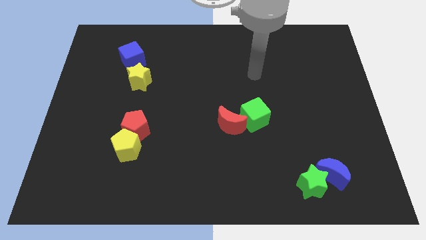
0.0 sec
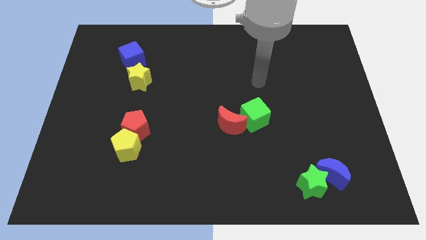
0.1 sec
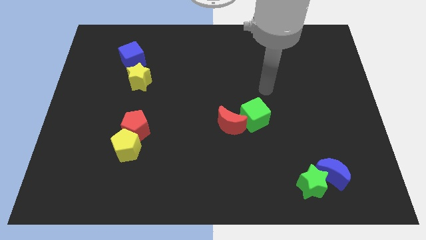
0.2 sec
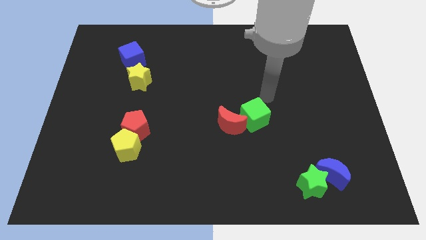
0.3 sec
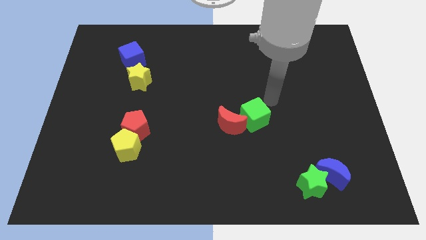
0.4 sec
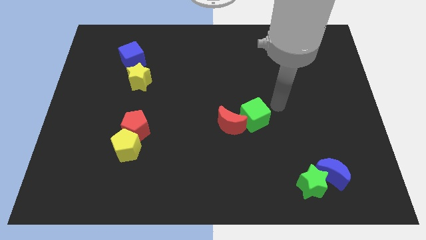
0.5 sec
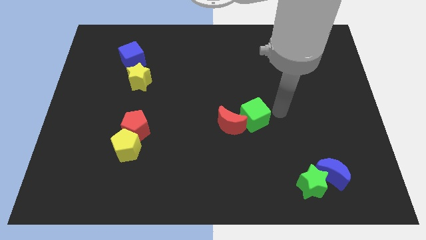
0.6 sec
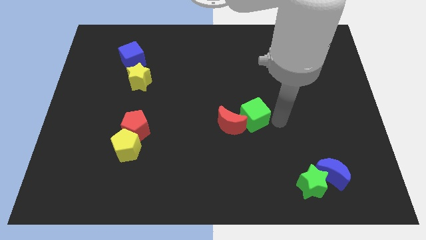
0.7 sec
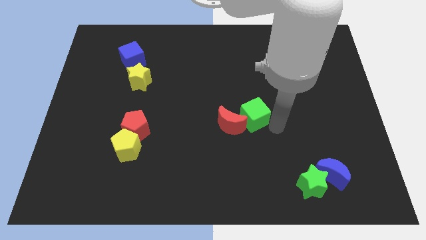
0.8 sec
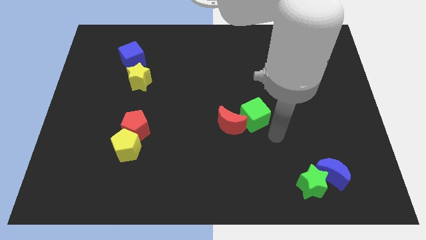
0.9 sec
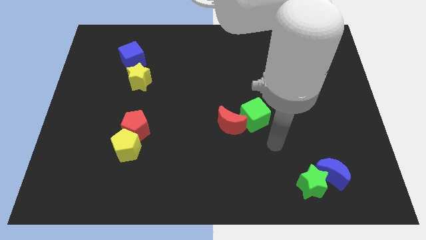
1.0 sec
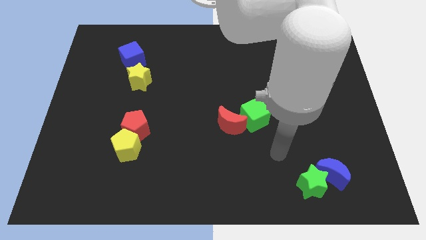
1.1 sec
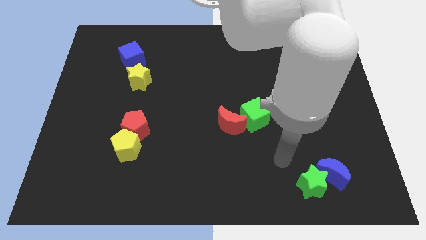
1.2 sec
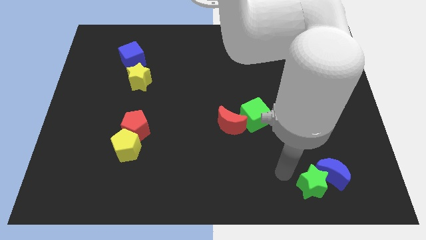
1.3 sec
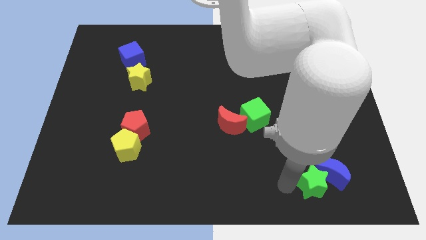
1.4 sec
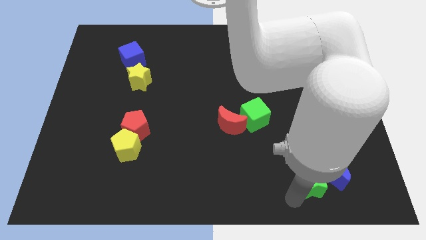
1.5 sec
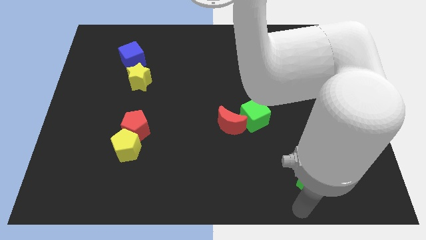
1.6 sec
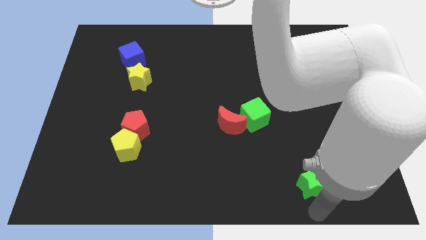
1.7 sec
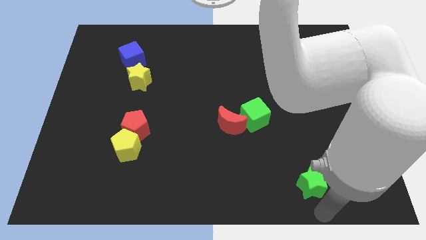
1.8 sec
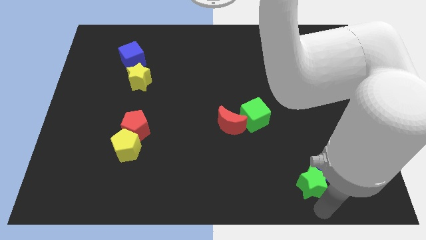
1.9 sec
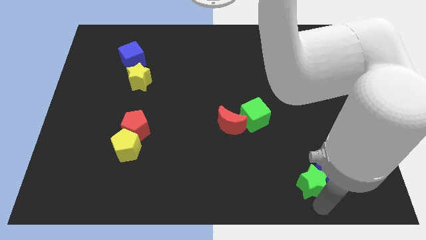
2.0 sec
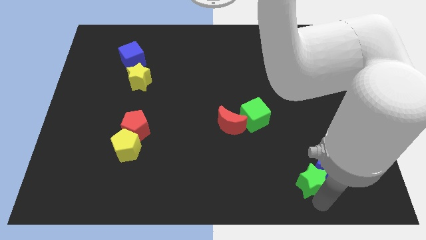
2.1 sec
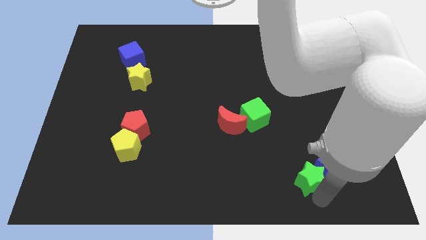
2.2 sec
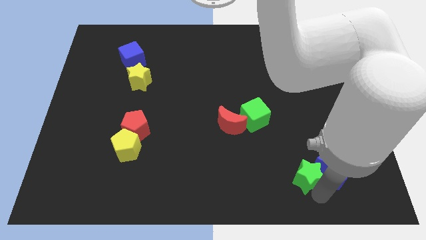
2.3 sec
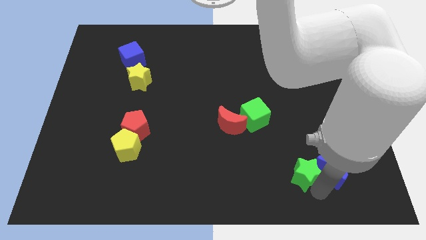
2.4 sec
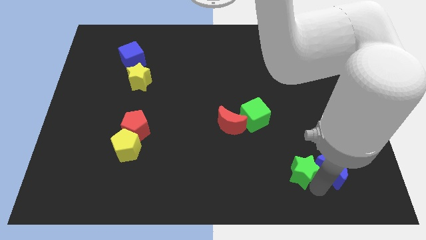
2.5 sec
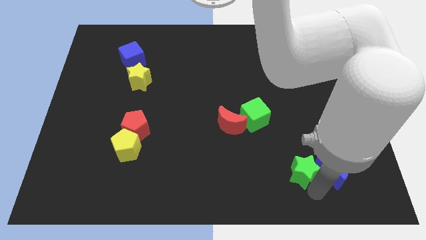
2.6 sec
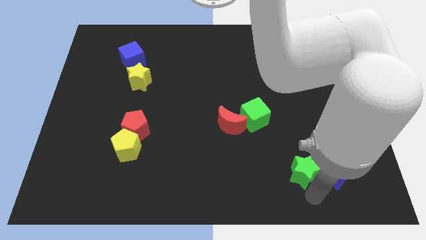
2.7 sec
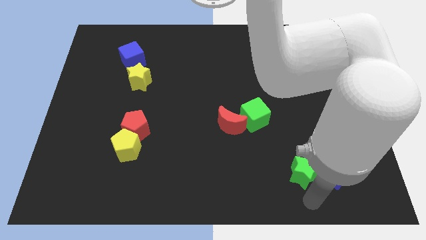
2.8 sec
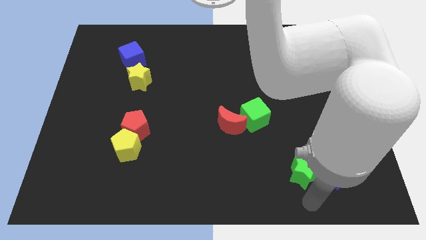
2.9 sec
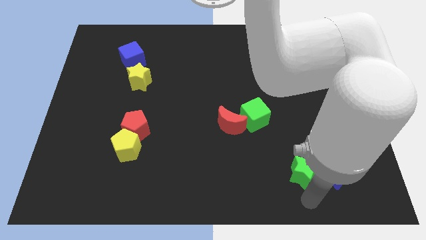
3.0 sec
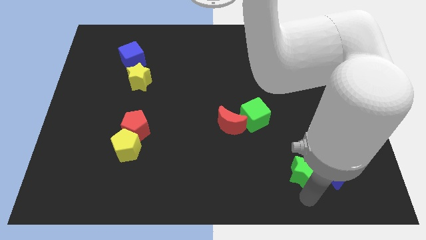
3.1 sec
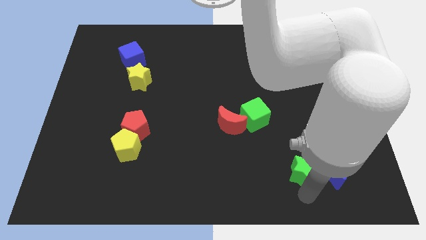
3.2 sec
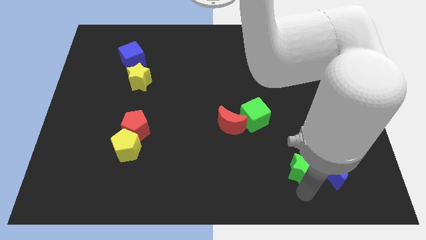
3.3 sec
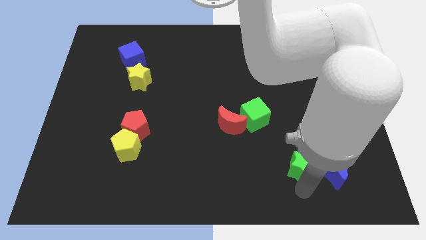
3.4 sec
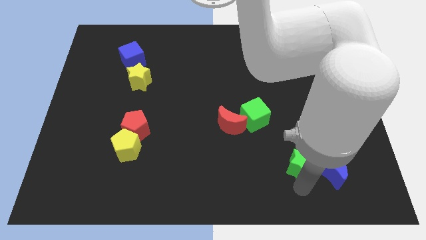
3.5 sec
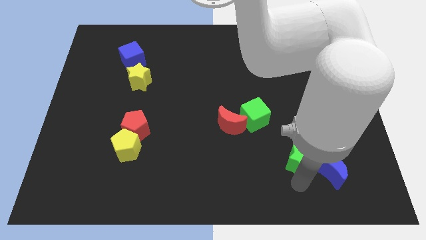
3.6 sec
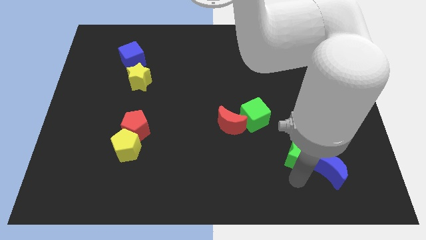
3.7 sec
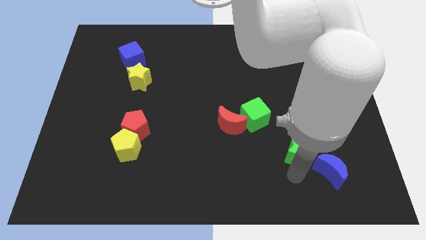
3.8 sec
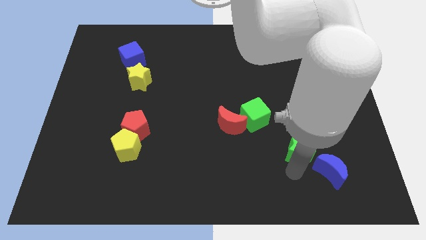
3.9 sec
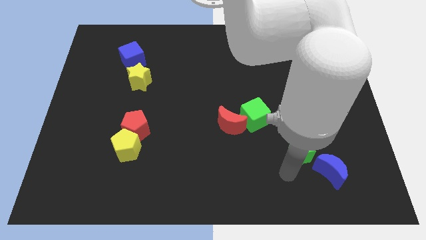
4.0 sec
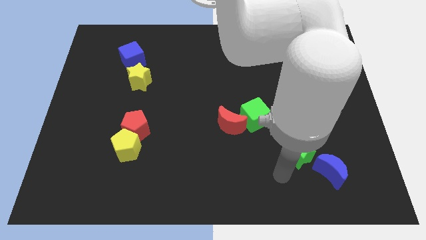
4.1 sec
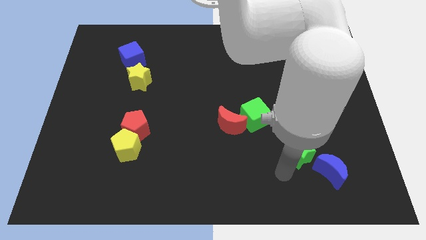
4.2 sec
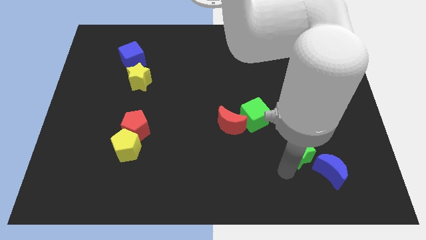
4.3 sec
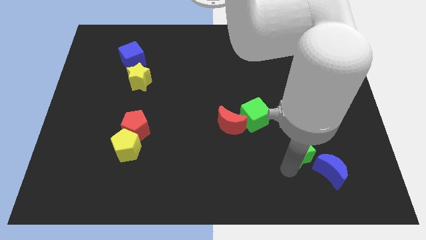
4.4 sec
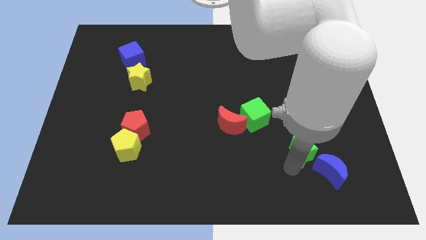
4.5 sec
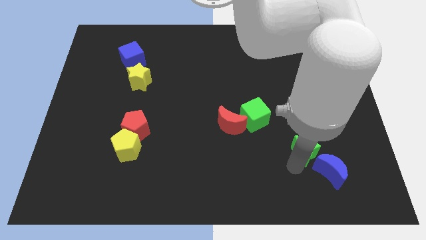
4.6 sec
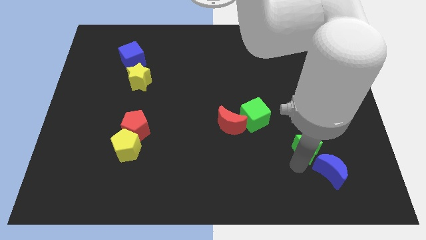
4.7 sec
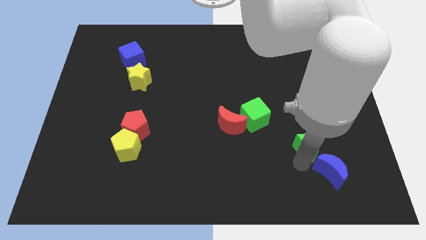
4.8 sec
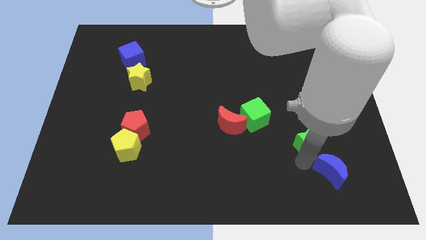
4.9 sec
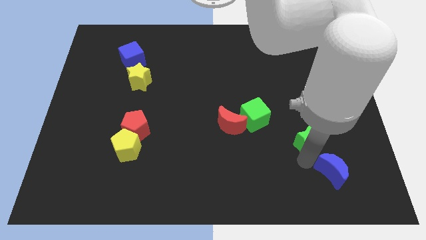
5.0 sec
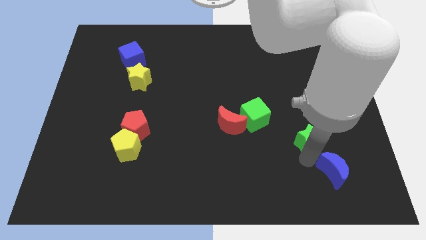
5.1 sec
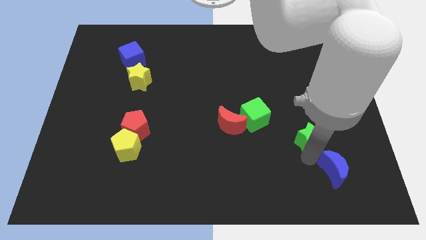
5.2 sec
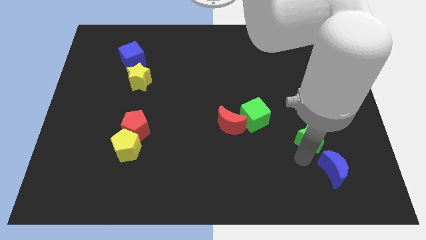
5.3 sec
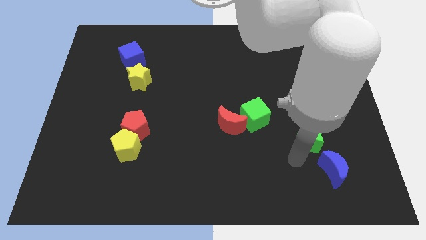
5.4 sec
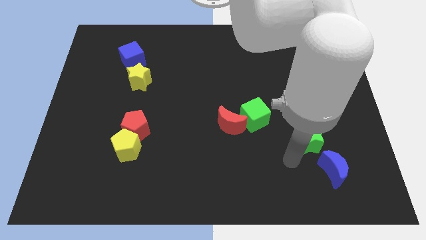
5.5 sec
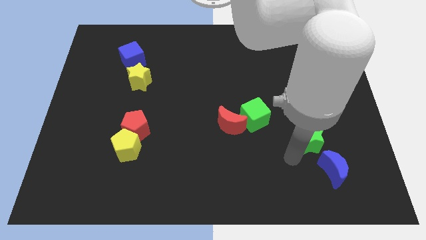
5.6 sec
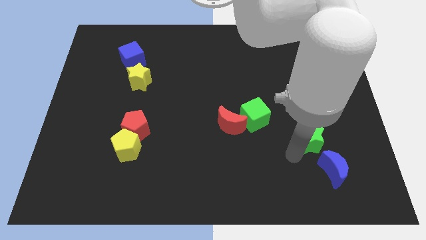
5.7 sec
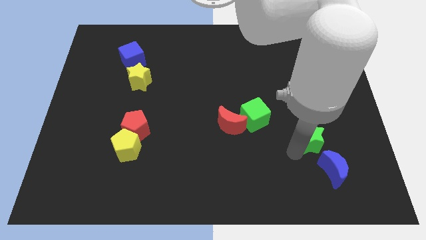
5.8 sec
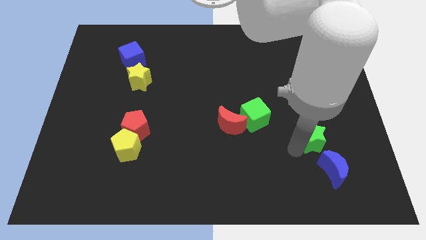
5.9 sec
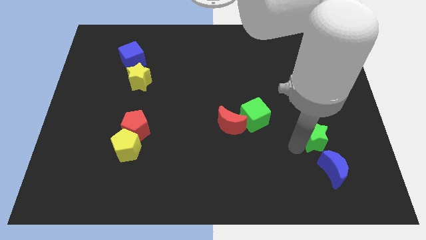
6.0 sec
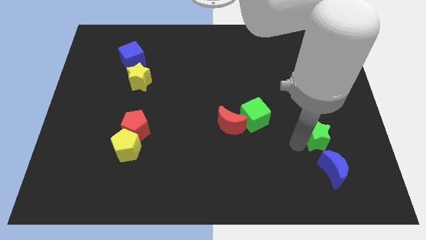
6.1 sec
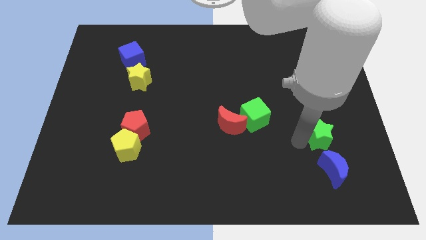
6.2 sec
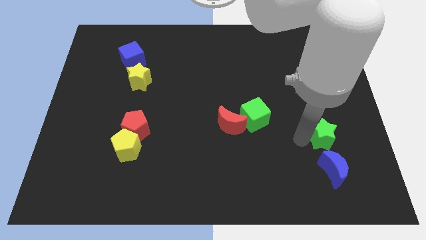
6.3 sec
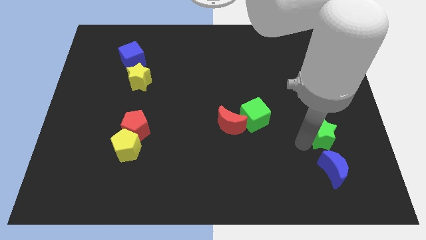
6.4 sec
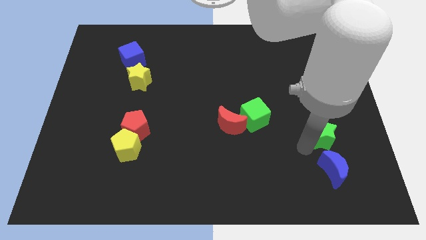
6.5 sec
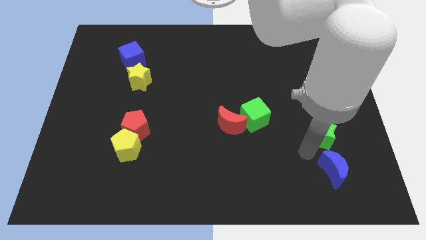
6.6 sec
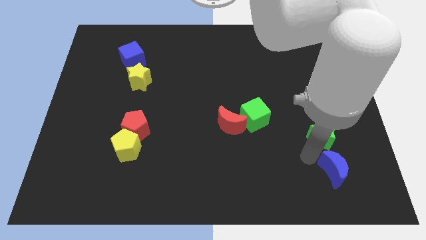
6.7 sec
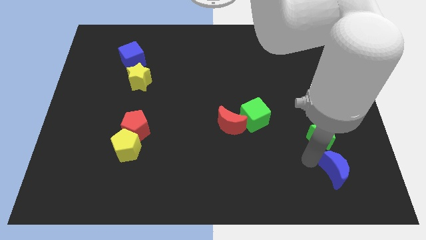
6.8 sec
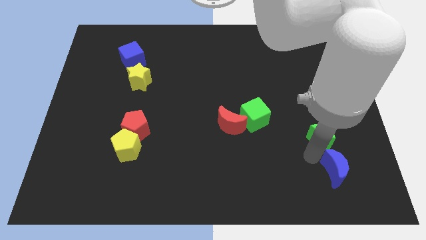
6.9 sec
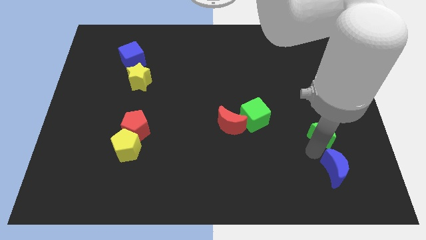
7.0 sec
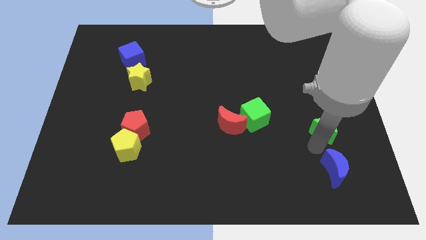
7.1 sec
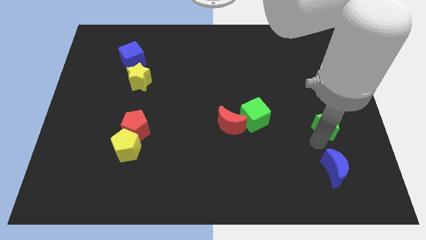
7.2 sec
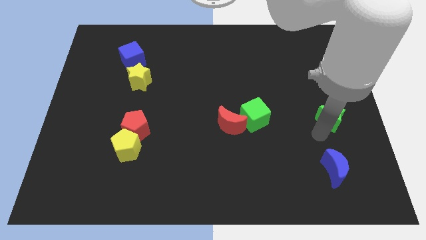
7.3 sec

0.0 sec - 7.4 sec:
put the green star to the center right
